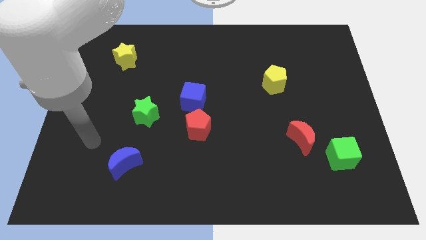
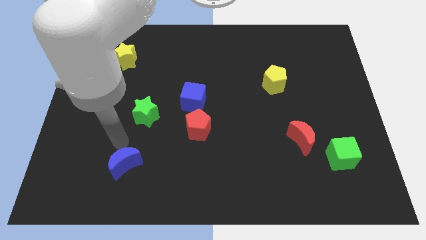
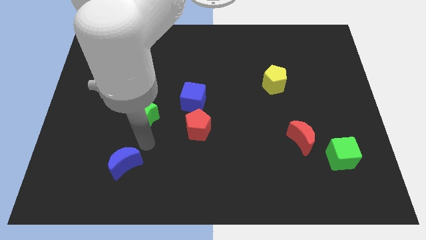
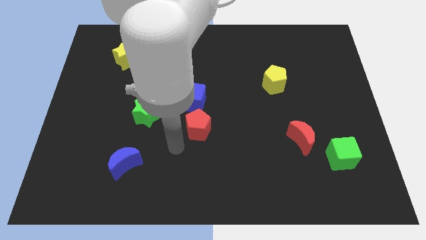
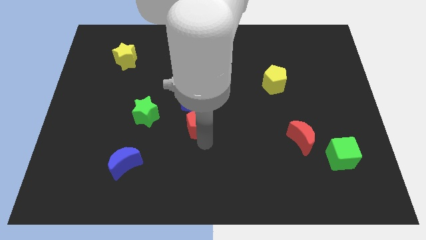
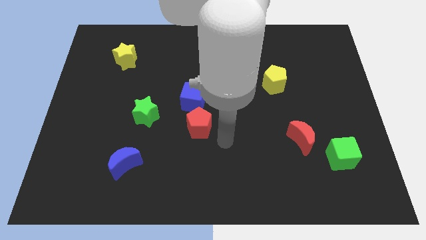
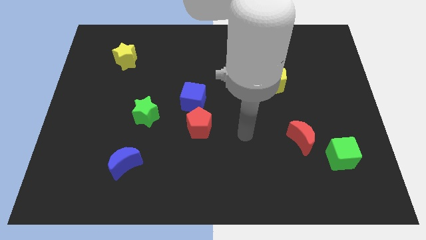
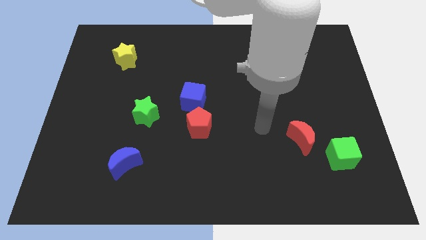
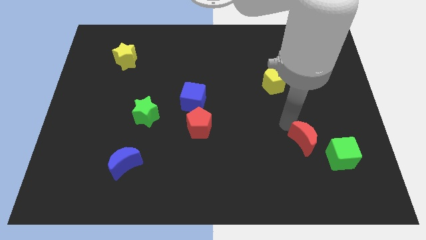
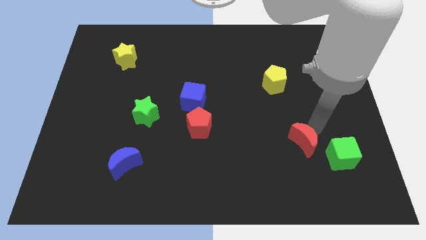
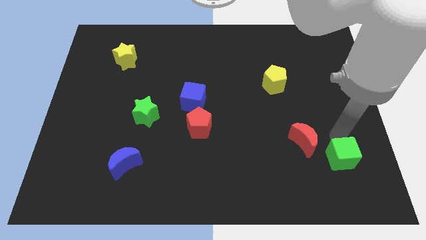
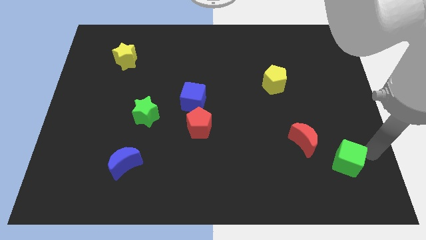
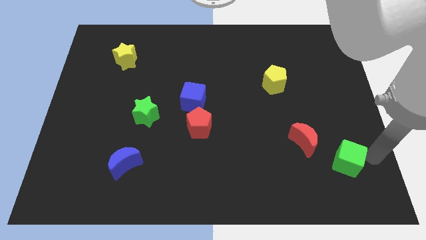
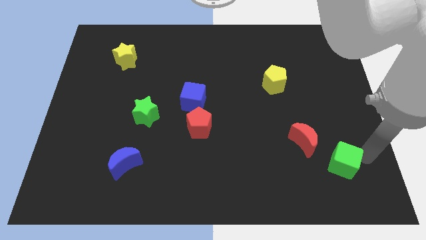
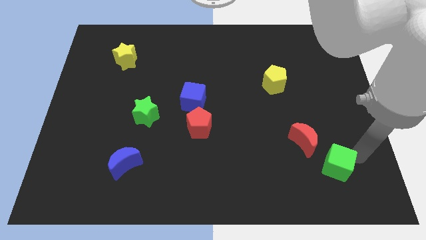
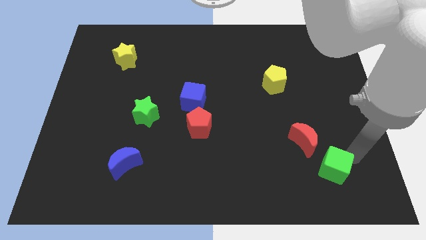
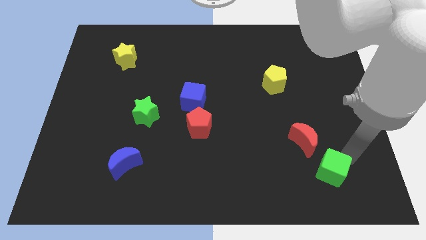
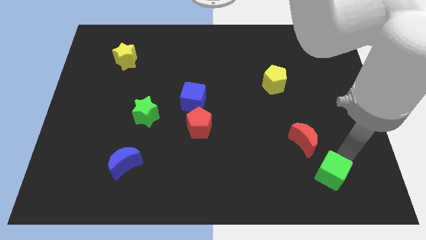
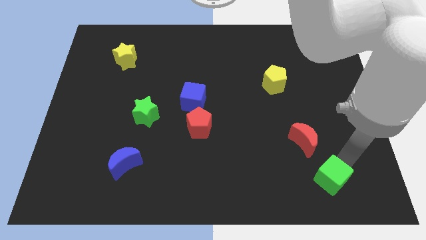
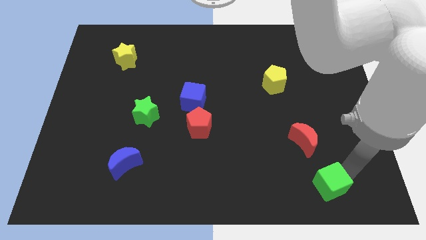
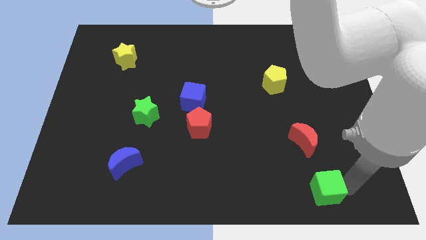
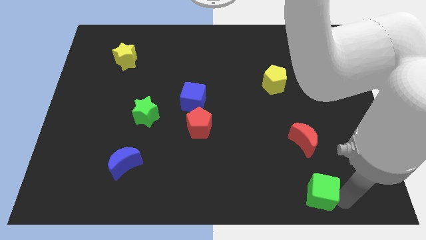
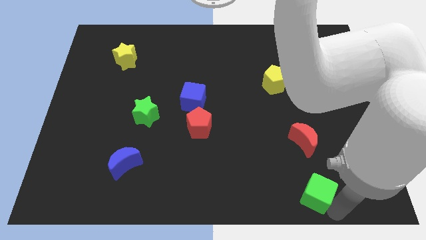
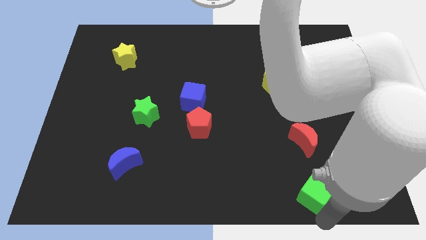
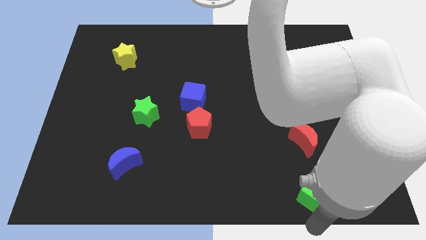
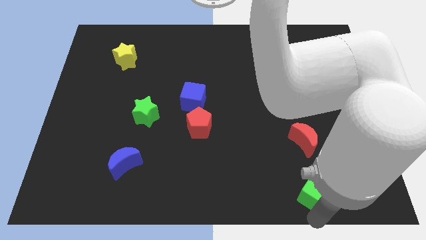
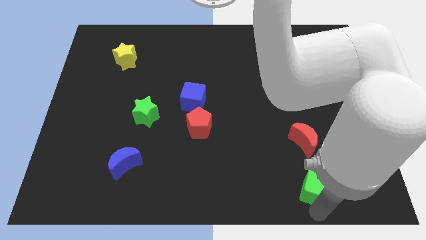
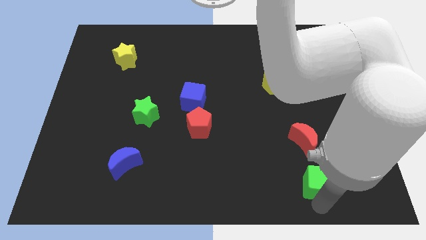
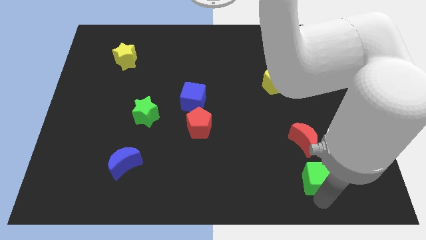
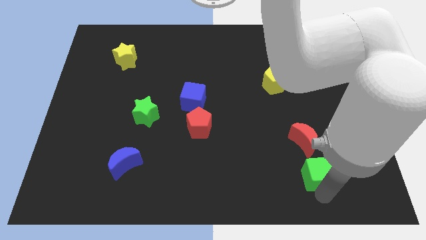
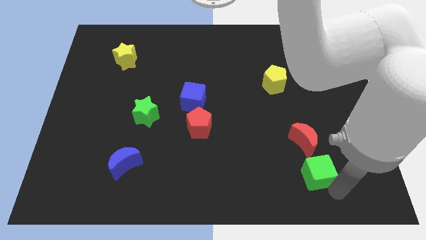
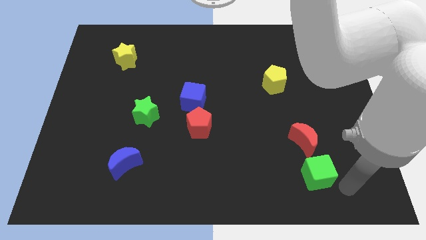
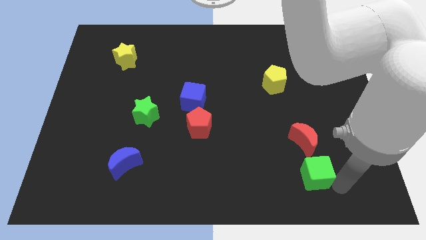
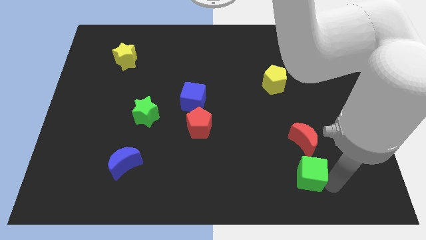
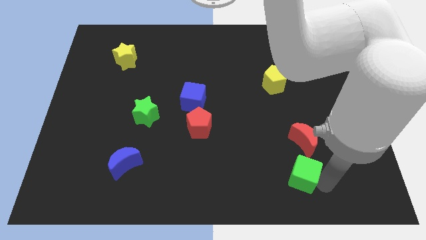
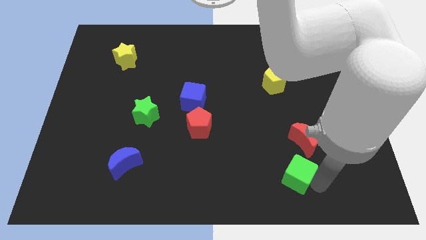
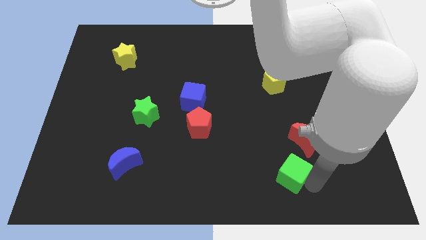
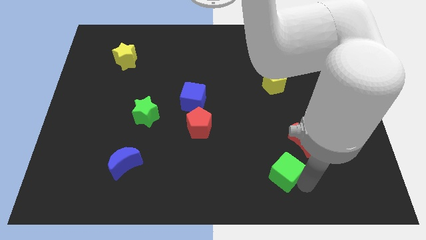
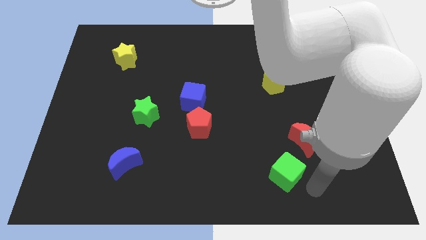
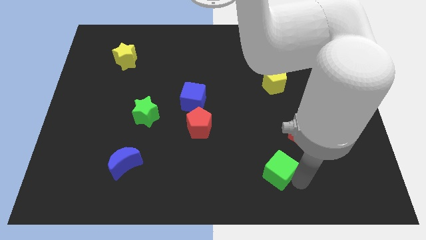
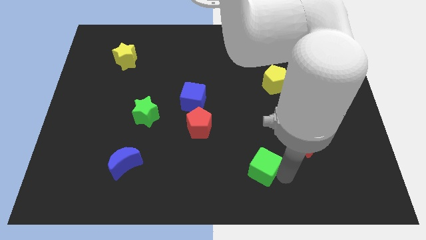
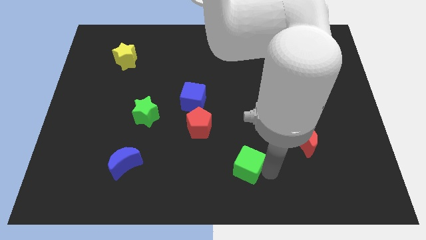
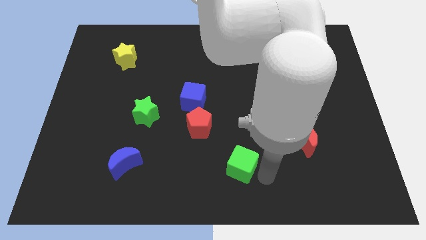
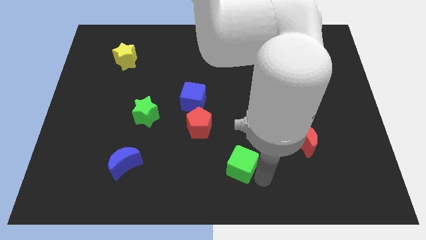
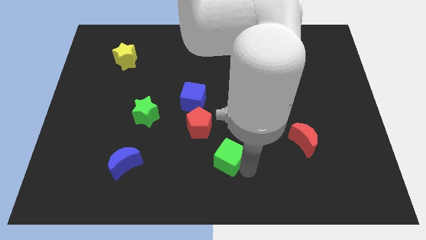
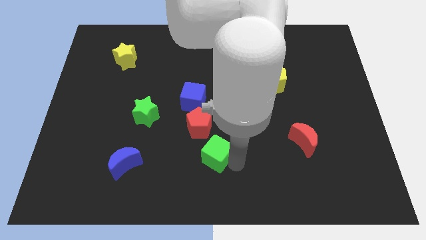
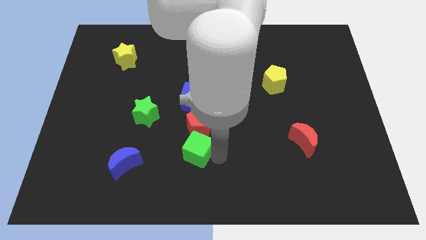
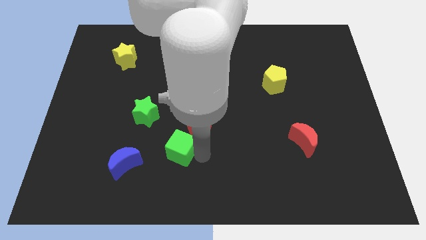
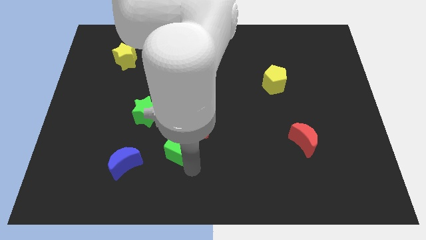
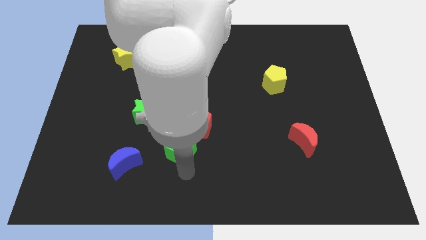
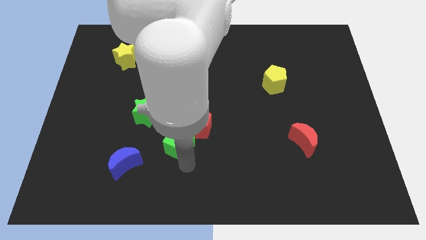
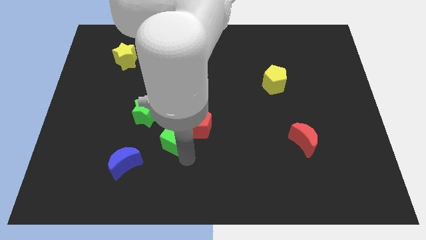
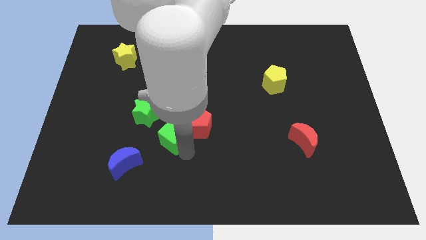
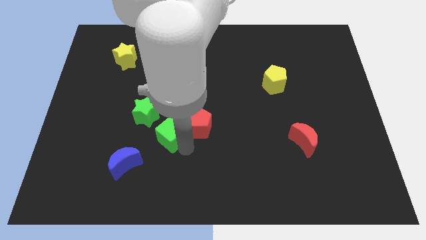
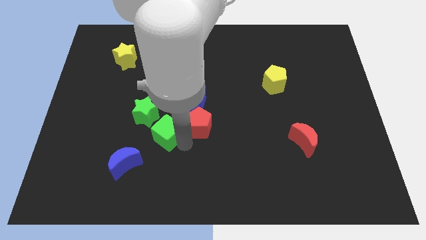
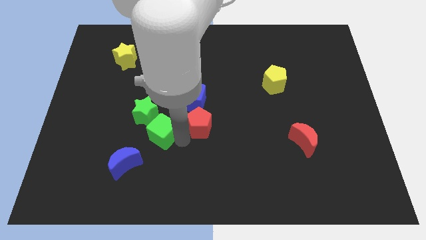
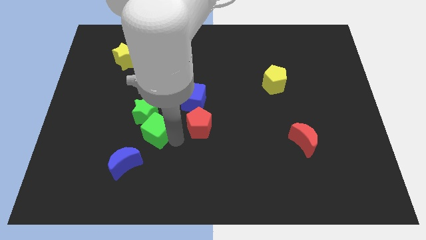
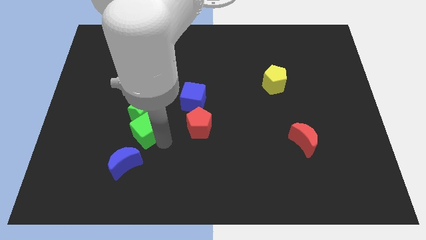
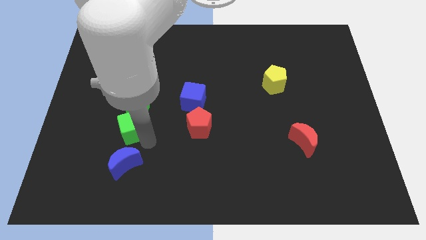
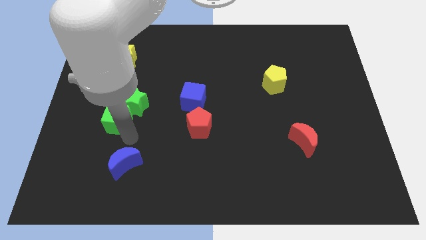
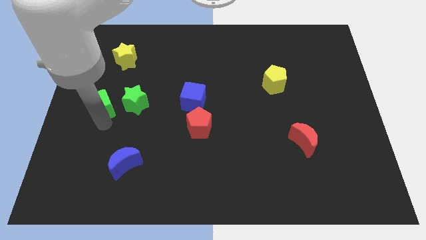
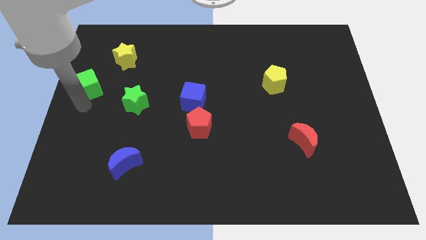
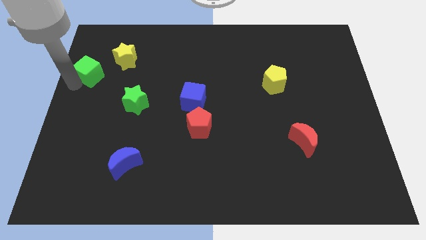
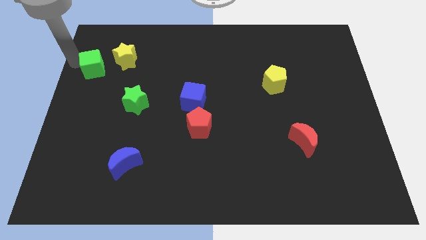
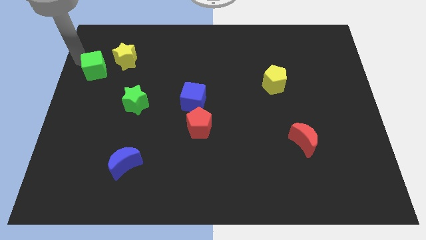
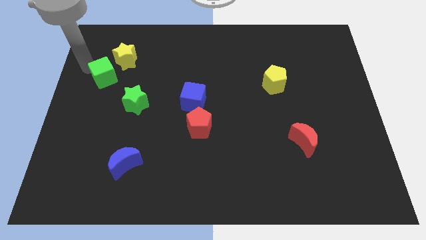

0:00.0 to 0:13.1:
move the green cube to the bottom of the yellow star

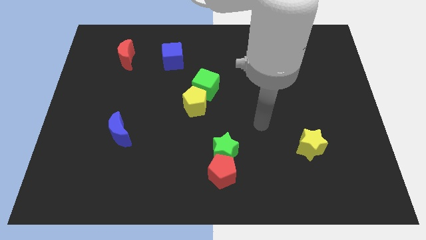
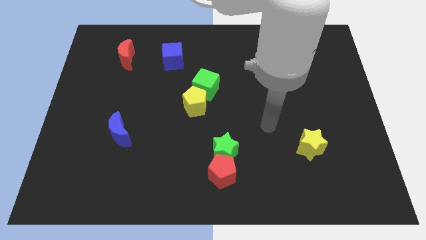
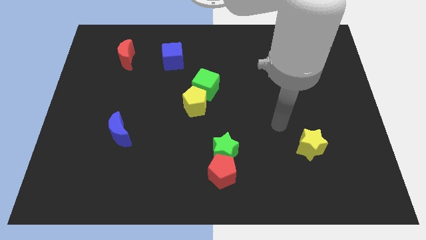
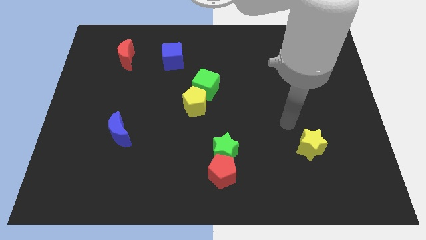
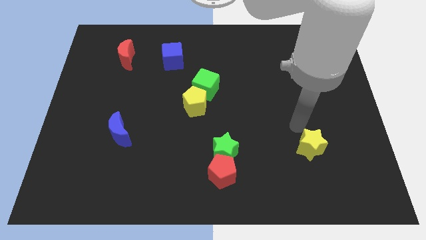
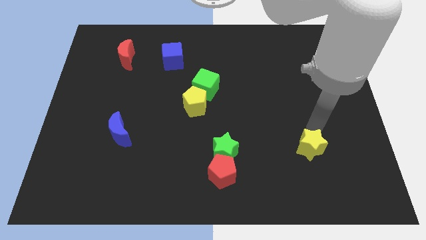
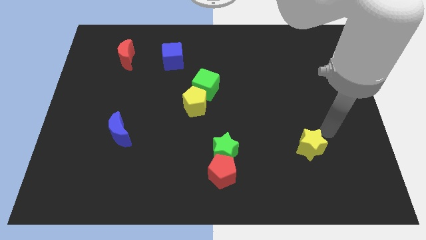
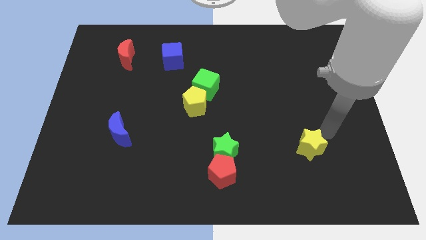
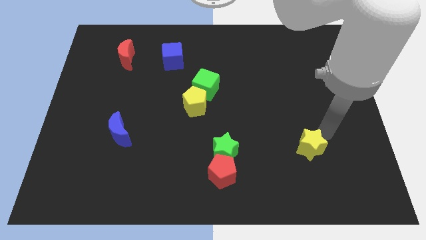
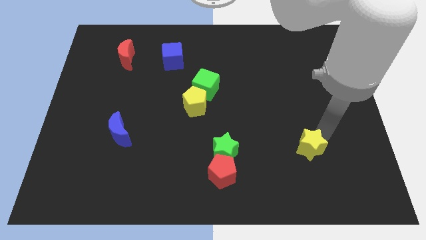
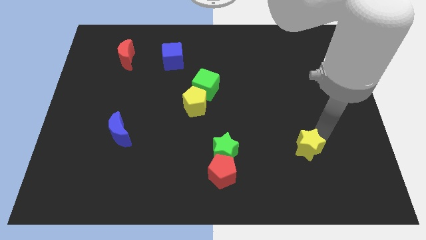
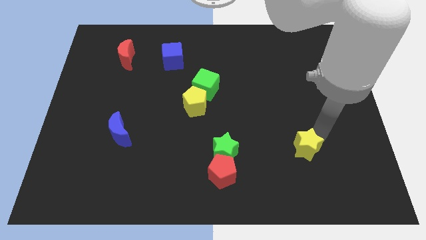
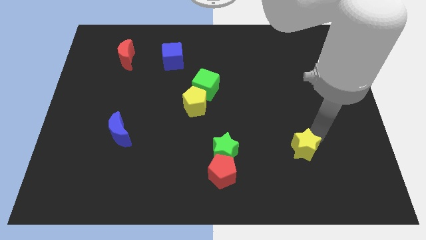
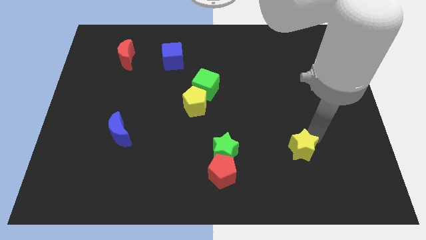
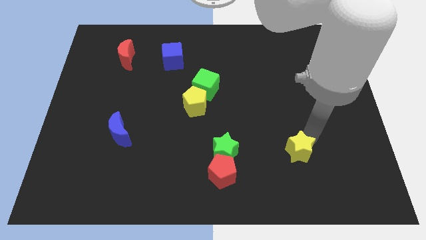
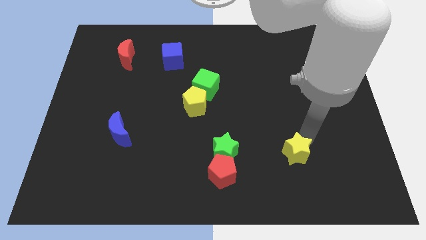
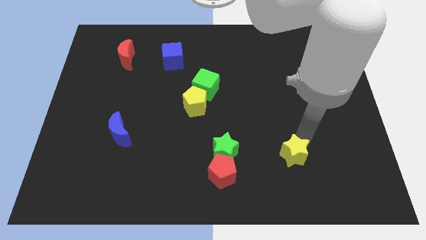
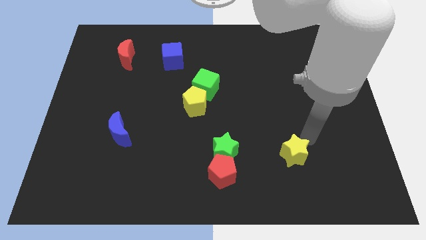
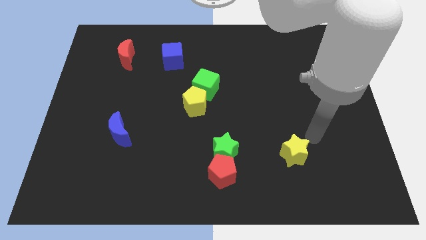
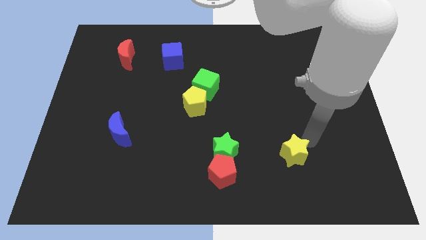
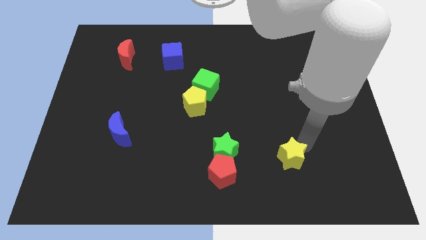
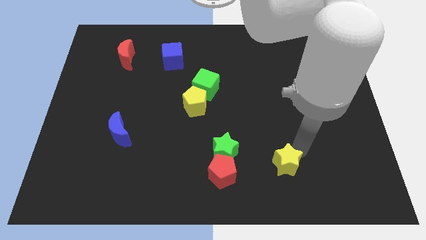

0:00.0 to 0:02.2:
put the yellow star just right of the red pentagon

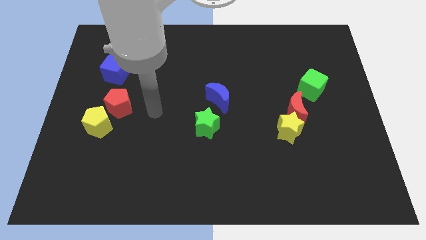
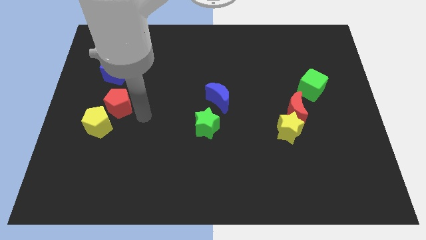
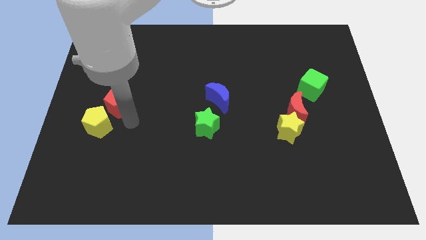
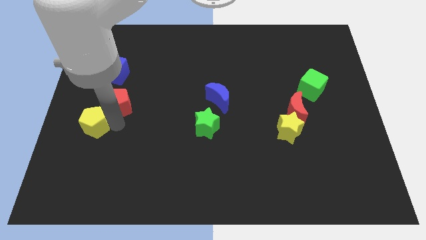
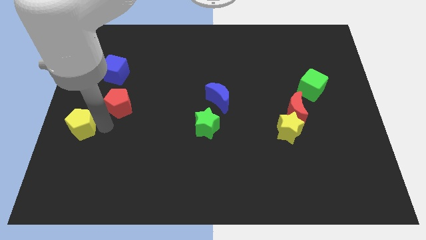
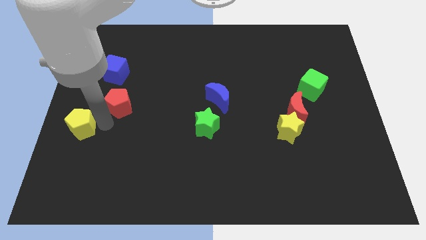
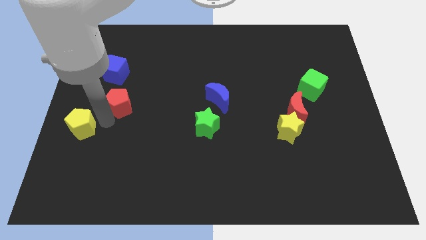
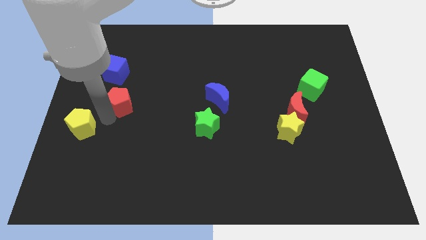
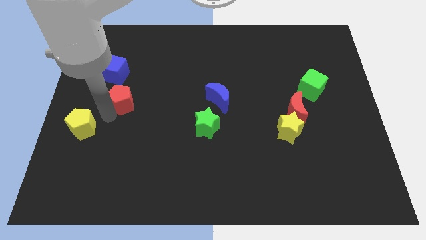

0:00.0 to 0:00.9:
move the red pentagon to the bottom right side of the blue cube
